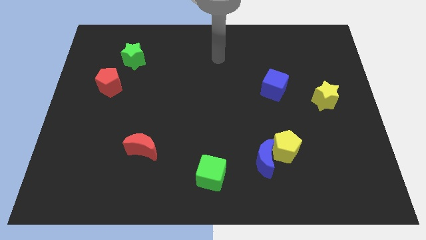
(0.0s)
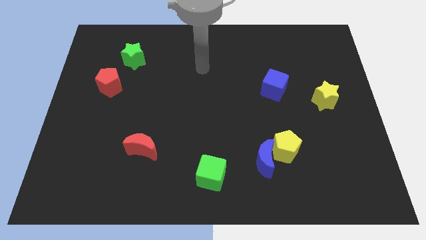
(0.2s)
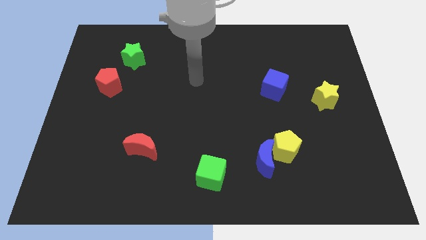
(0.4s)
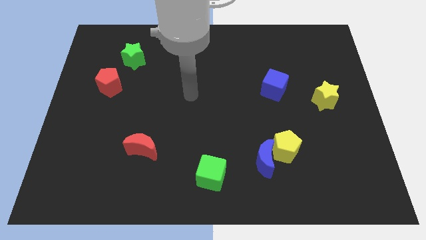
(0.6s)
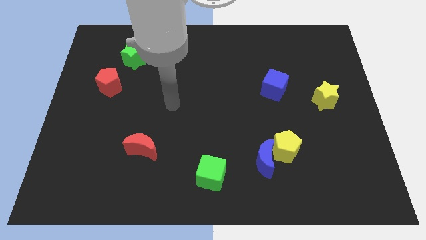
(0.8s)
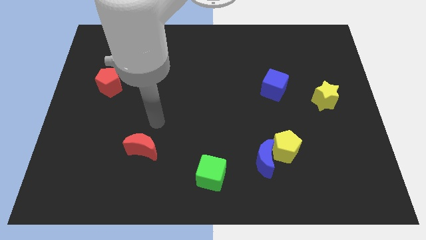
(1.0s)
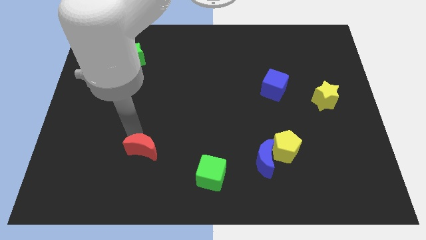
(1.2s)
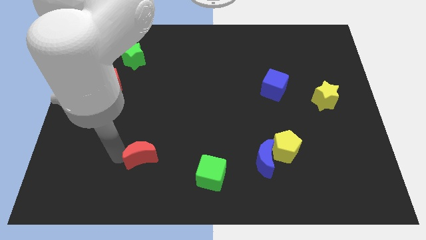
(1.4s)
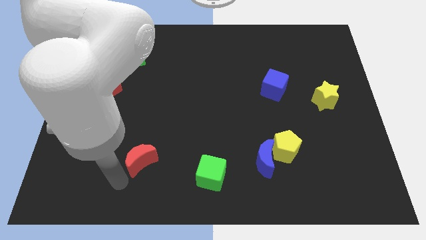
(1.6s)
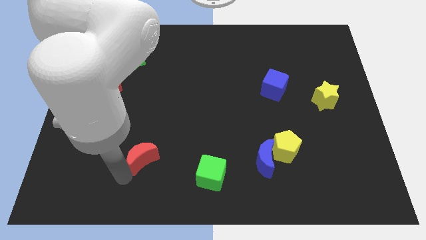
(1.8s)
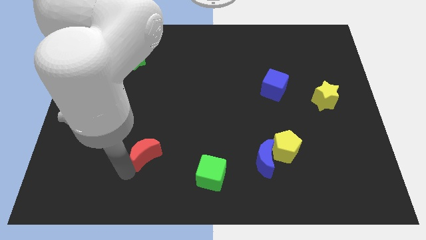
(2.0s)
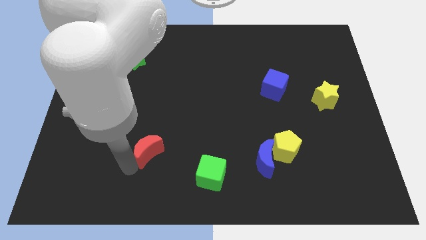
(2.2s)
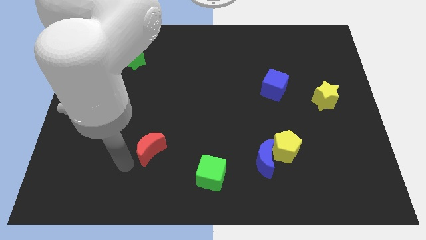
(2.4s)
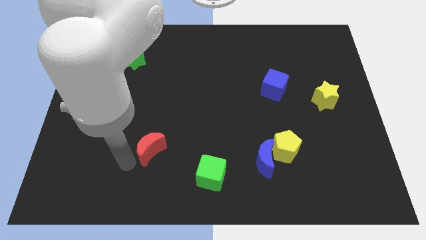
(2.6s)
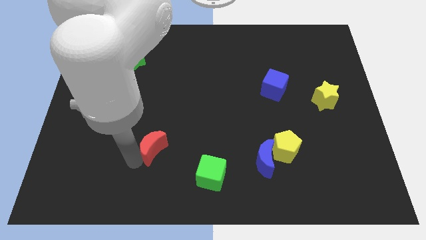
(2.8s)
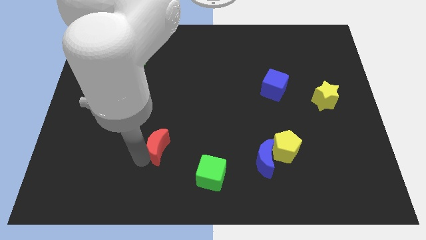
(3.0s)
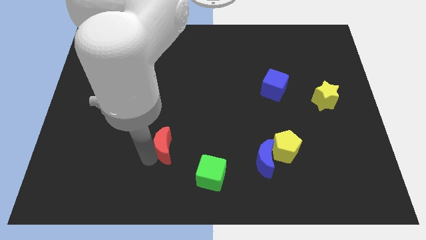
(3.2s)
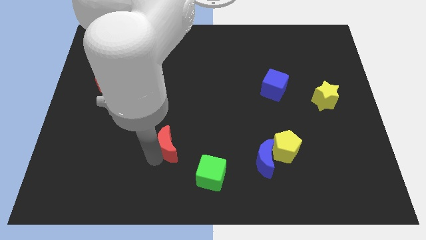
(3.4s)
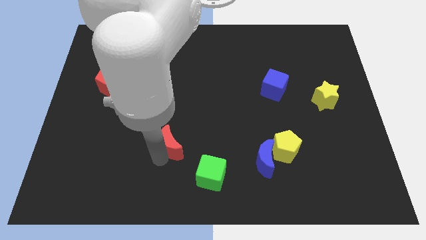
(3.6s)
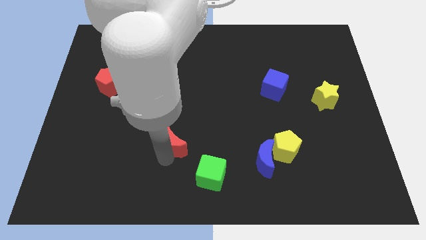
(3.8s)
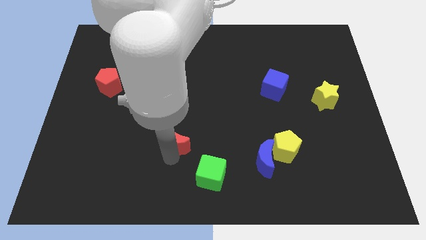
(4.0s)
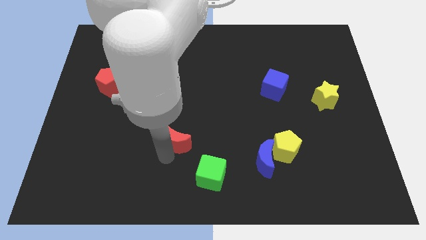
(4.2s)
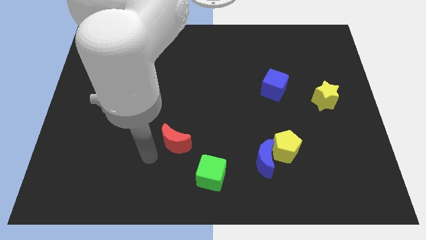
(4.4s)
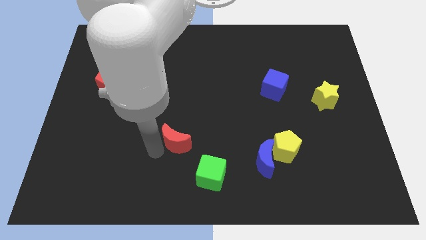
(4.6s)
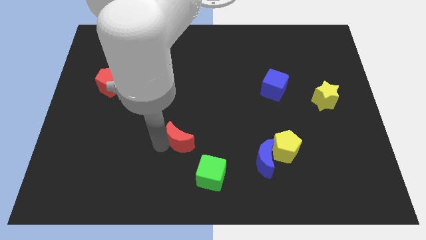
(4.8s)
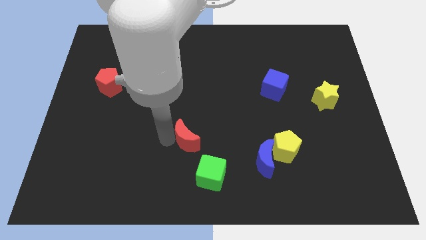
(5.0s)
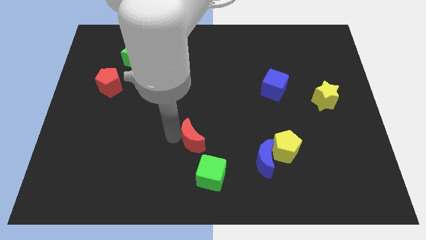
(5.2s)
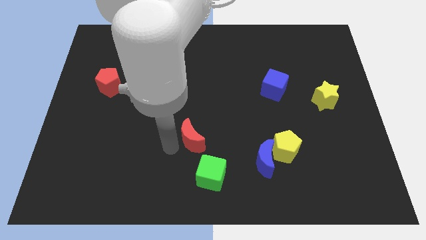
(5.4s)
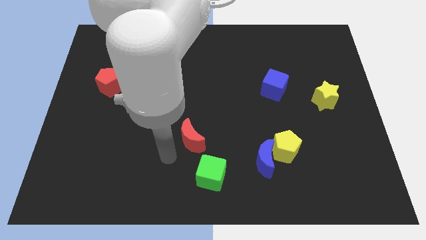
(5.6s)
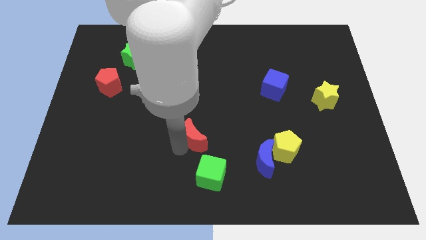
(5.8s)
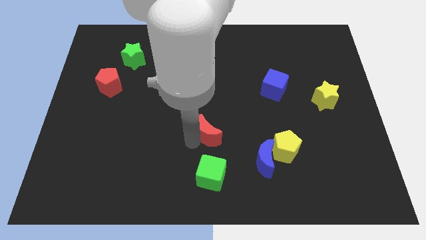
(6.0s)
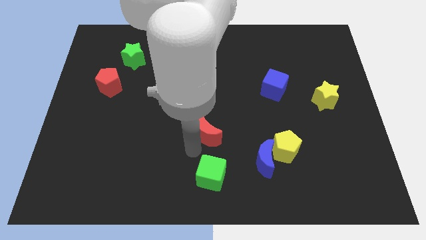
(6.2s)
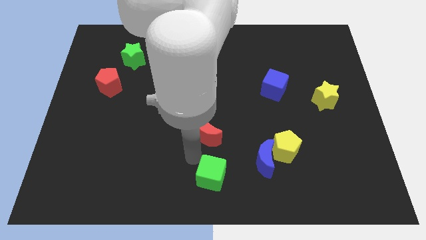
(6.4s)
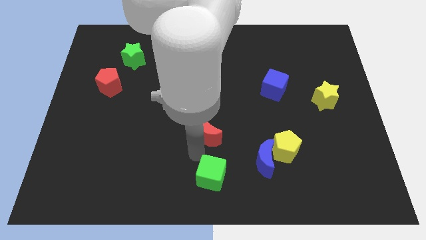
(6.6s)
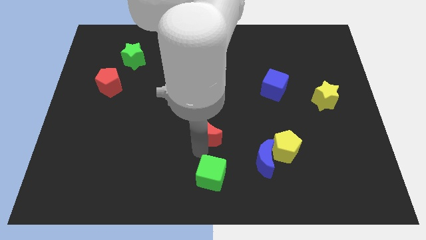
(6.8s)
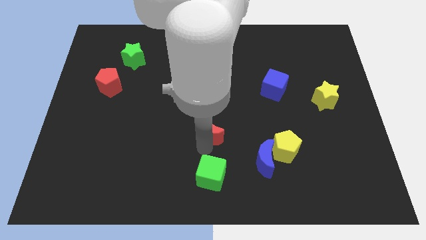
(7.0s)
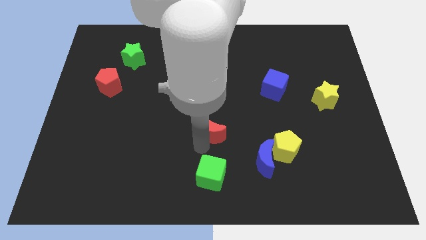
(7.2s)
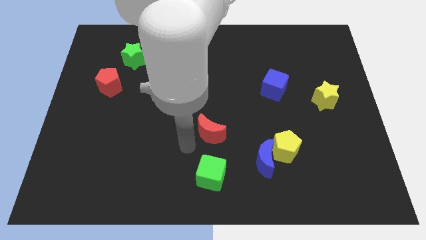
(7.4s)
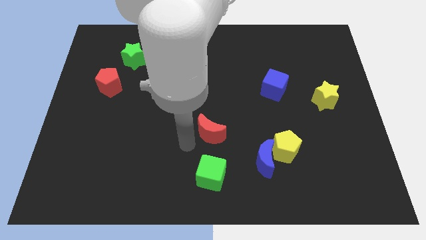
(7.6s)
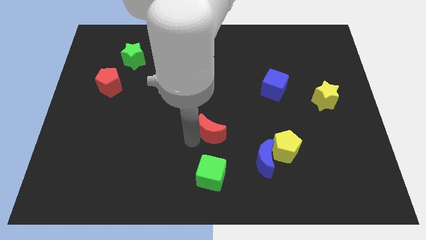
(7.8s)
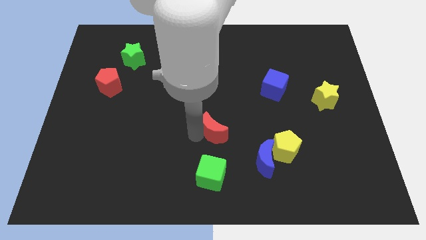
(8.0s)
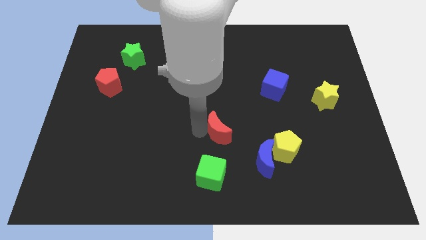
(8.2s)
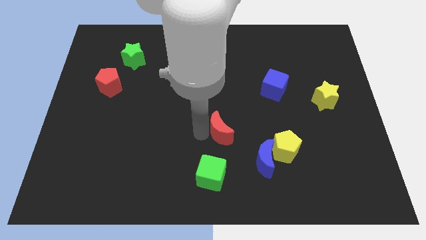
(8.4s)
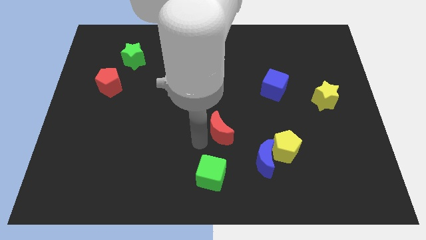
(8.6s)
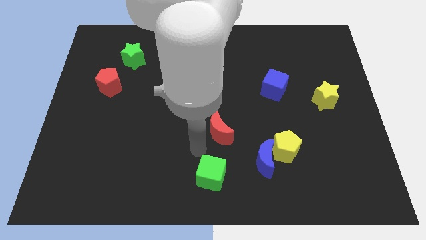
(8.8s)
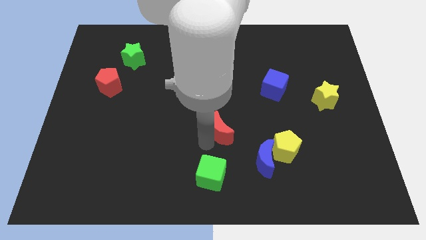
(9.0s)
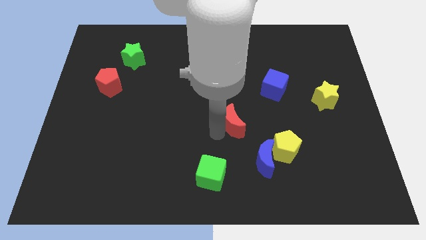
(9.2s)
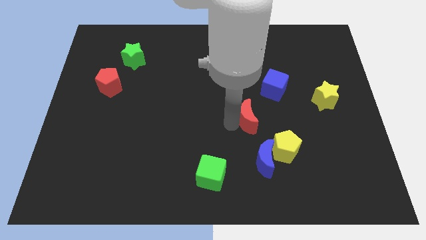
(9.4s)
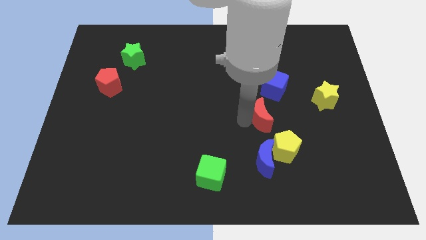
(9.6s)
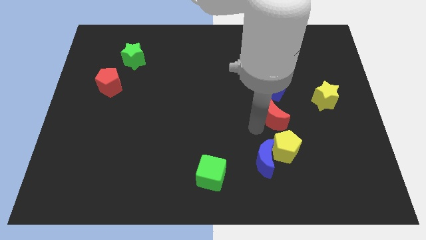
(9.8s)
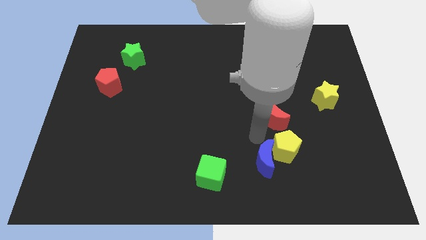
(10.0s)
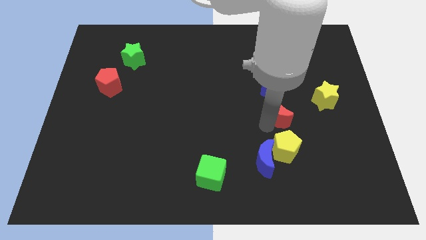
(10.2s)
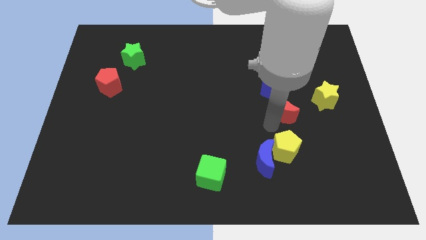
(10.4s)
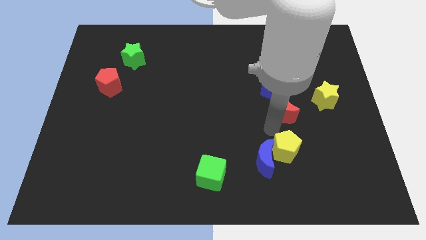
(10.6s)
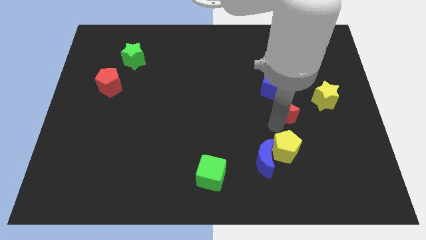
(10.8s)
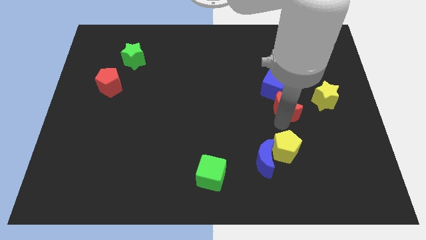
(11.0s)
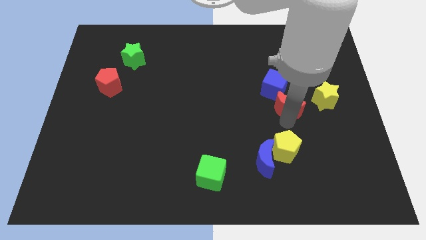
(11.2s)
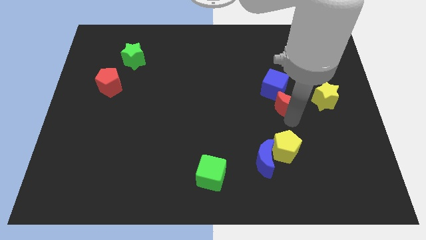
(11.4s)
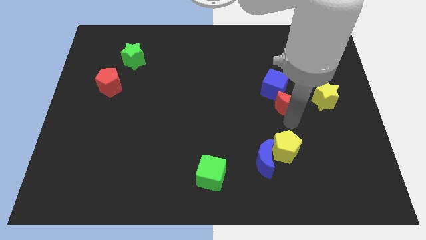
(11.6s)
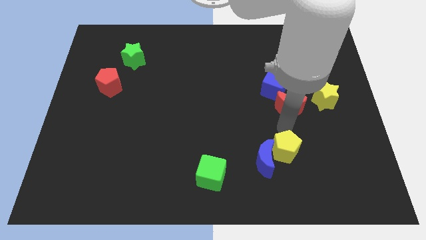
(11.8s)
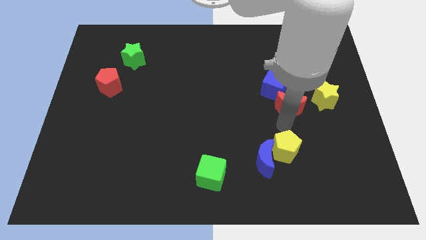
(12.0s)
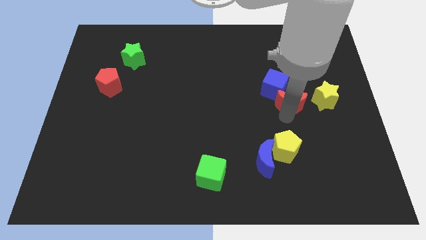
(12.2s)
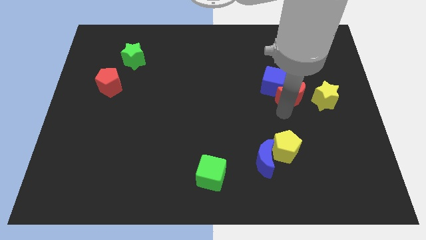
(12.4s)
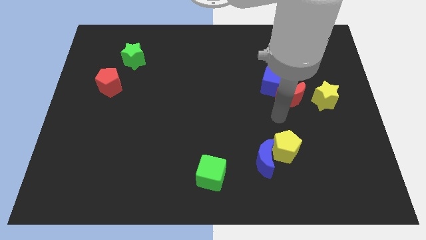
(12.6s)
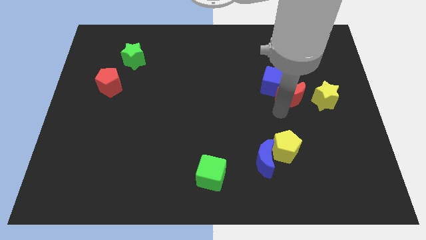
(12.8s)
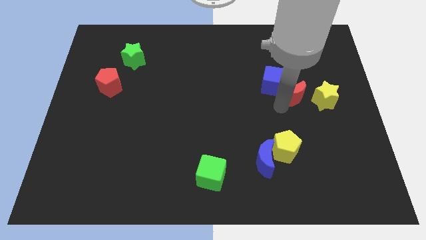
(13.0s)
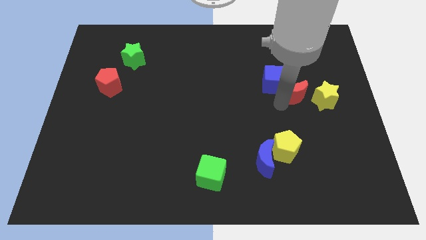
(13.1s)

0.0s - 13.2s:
move the red moon to the top left side of the yellow star

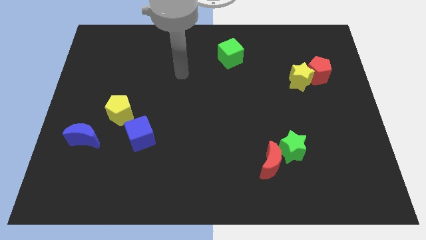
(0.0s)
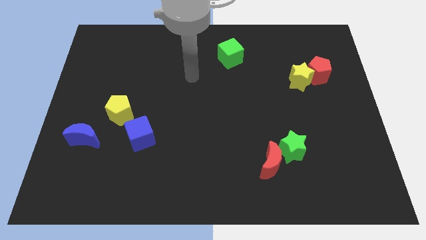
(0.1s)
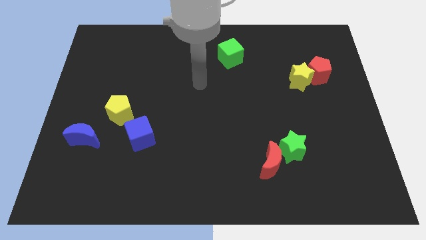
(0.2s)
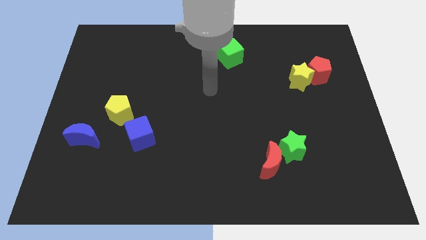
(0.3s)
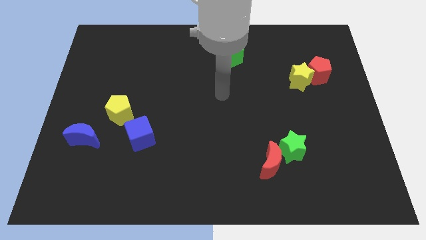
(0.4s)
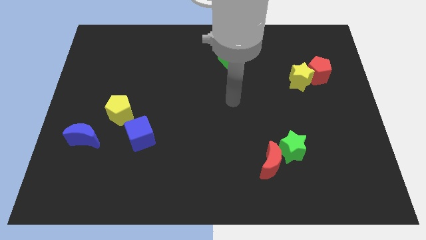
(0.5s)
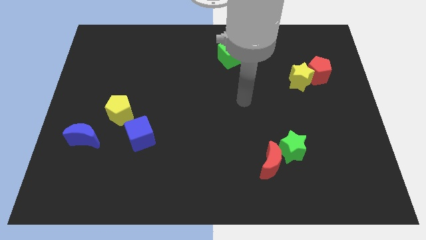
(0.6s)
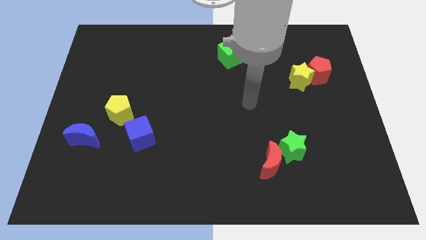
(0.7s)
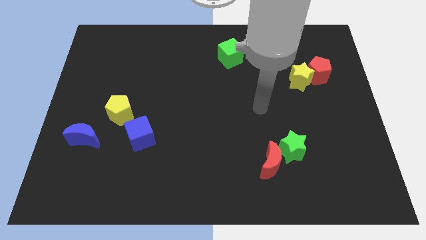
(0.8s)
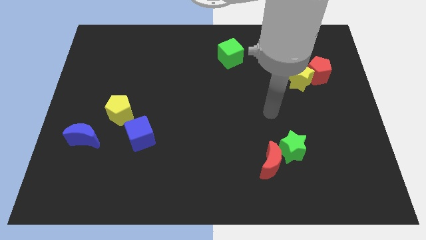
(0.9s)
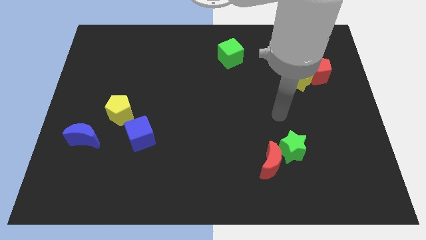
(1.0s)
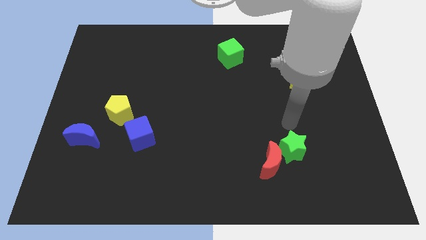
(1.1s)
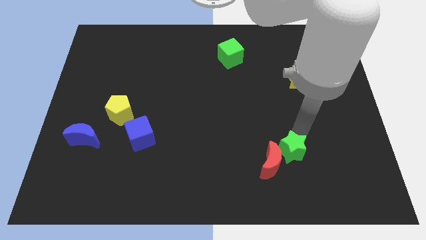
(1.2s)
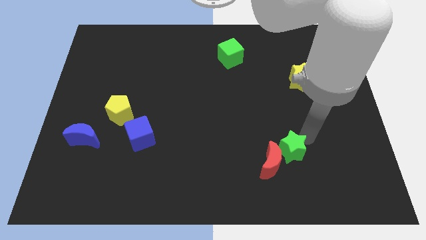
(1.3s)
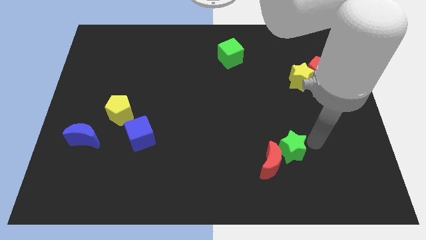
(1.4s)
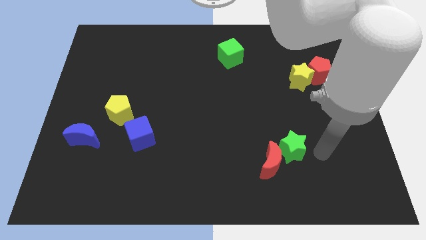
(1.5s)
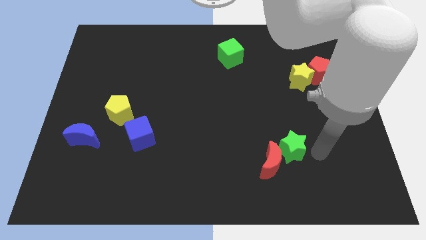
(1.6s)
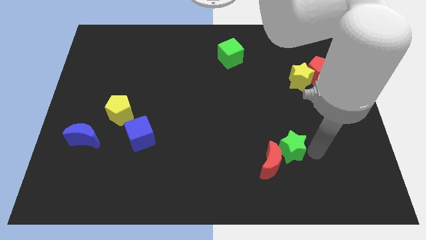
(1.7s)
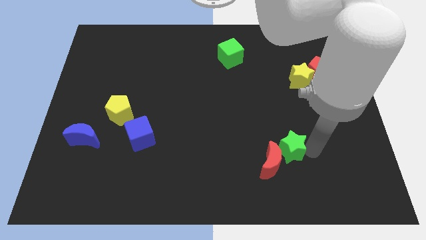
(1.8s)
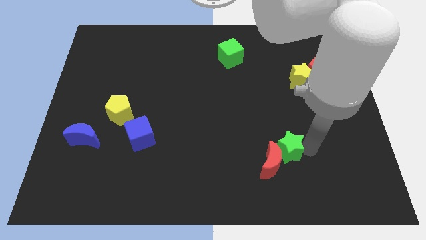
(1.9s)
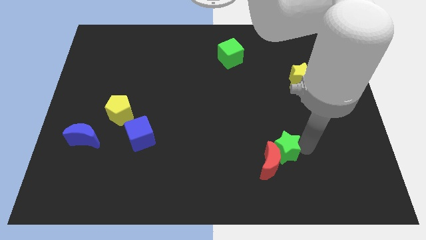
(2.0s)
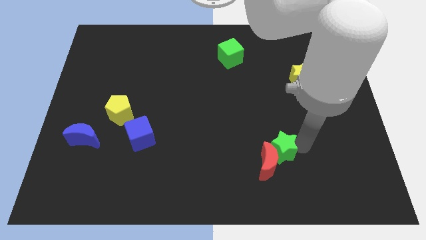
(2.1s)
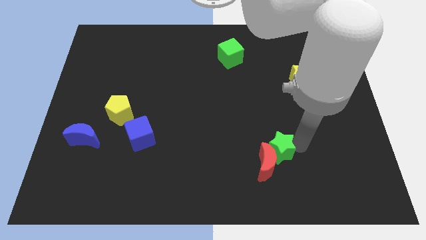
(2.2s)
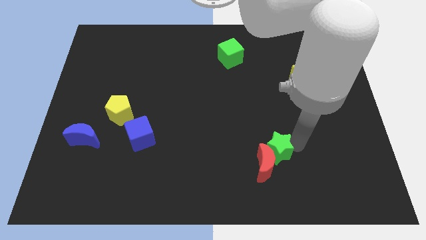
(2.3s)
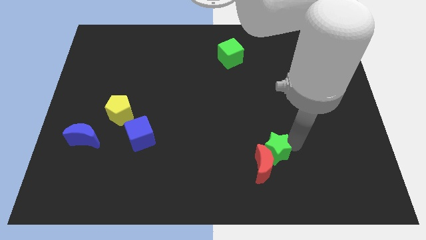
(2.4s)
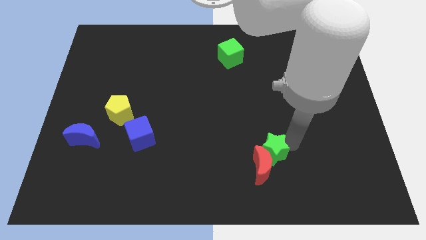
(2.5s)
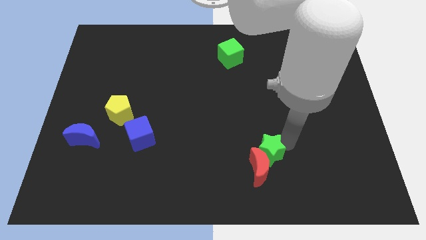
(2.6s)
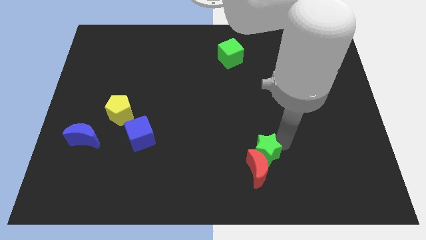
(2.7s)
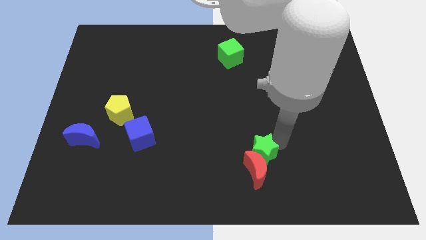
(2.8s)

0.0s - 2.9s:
push the green star to the top left side of the red moon
